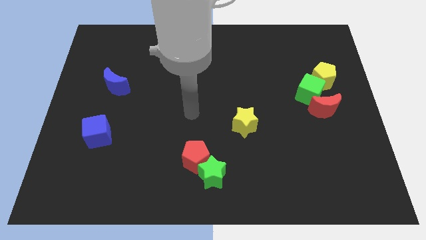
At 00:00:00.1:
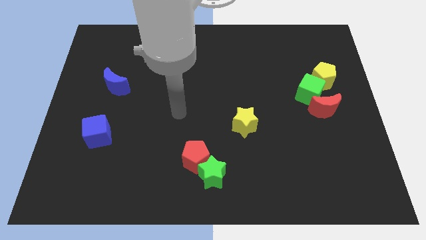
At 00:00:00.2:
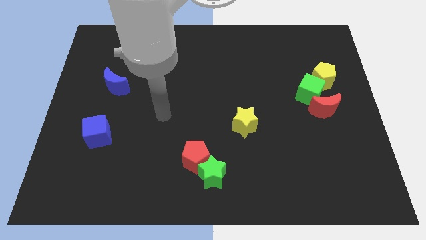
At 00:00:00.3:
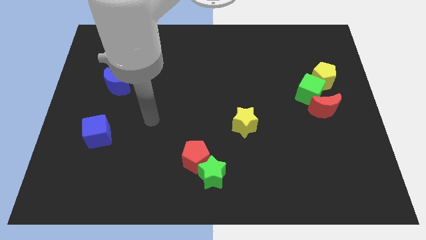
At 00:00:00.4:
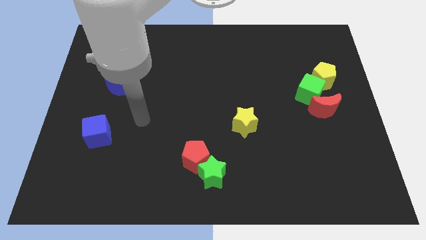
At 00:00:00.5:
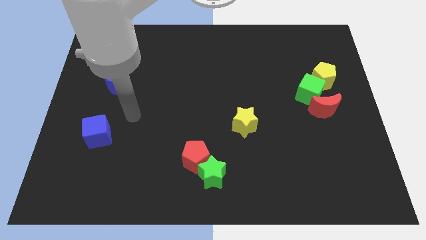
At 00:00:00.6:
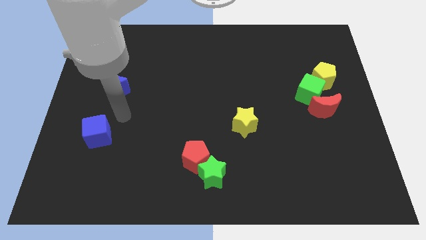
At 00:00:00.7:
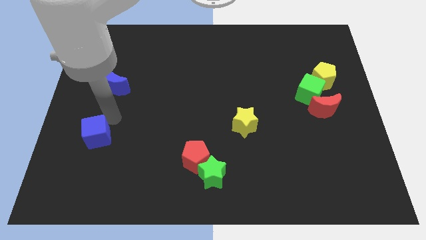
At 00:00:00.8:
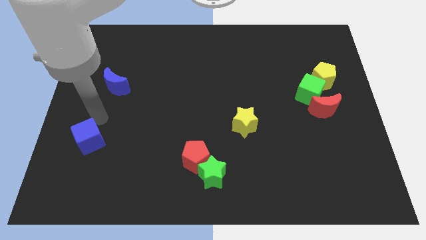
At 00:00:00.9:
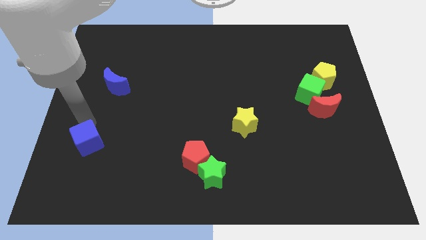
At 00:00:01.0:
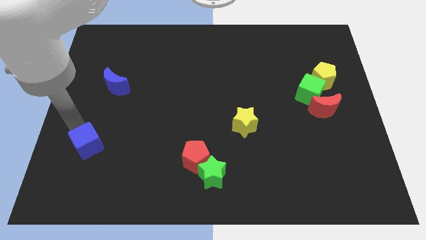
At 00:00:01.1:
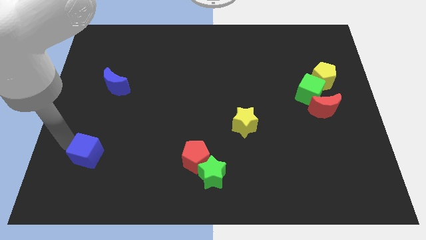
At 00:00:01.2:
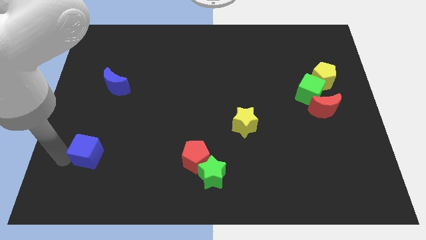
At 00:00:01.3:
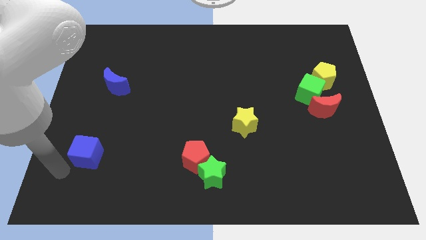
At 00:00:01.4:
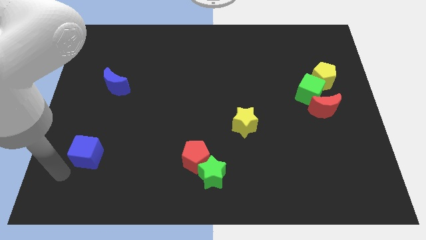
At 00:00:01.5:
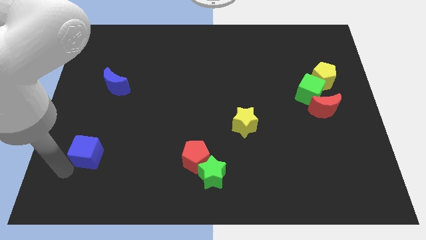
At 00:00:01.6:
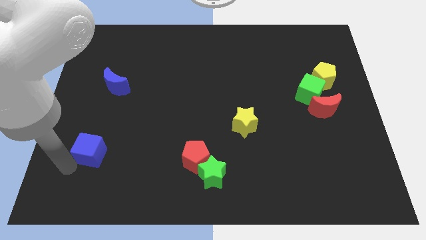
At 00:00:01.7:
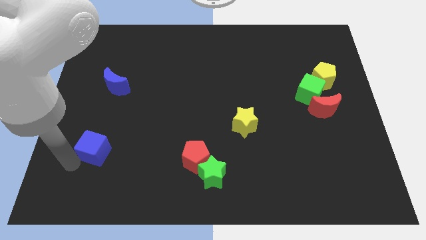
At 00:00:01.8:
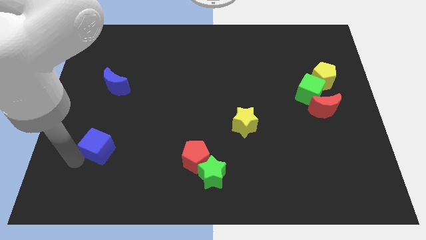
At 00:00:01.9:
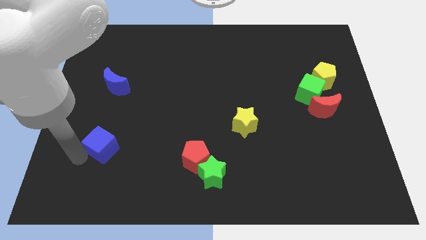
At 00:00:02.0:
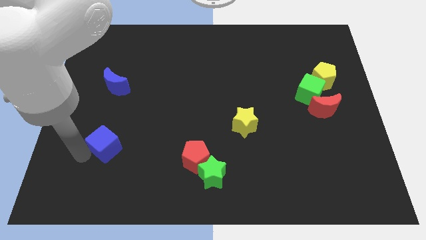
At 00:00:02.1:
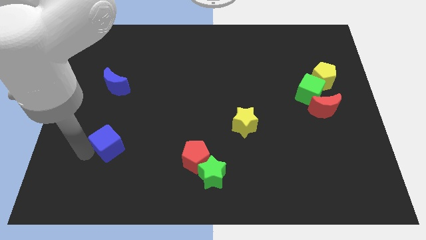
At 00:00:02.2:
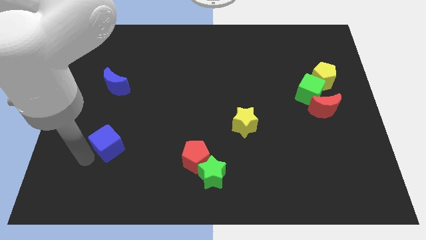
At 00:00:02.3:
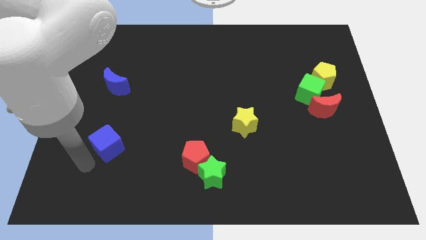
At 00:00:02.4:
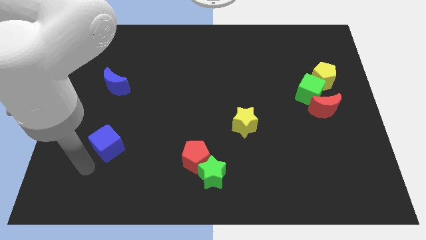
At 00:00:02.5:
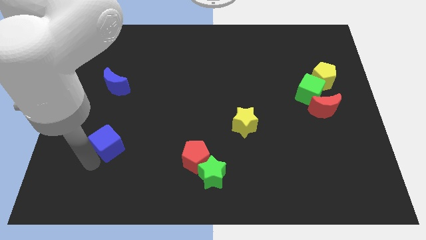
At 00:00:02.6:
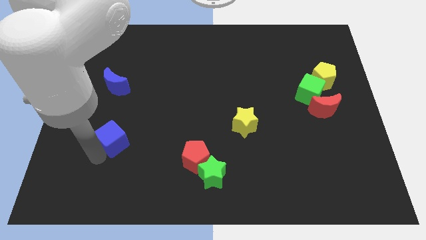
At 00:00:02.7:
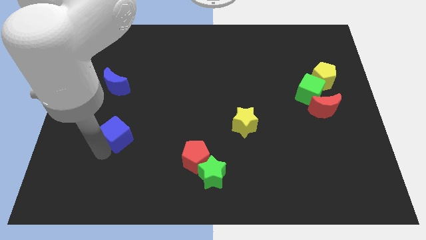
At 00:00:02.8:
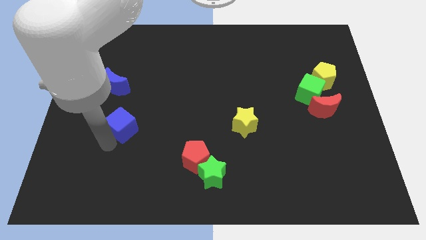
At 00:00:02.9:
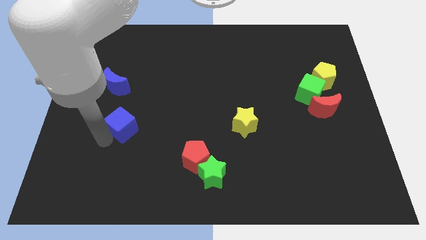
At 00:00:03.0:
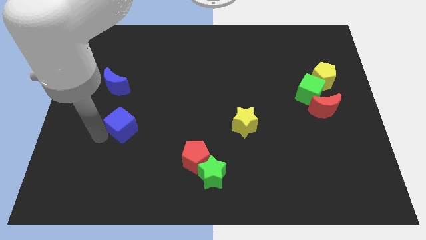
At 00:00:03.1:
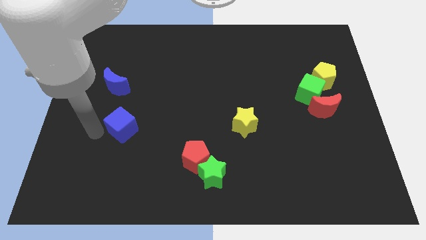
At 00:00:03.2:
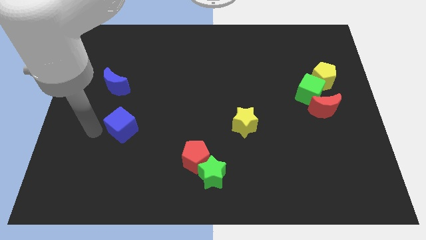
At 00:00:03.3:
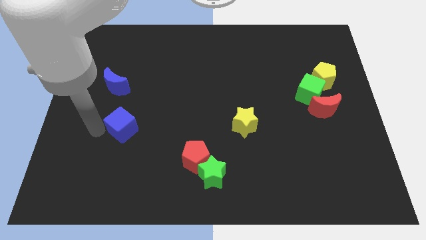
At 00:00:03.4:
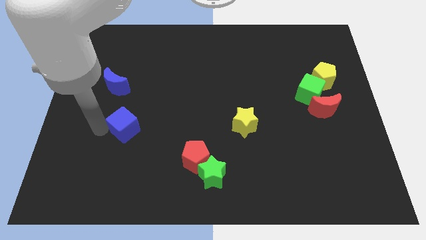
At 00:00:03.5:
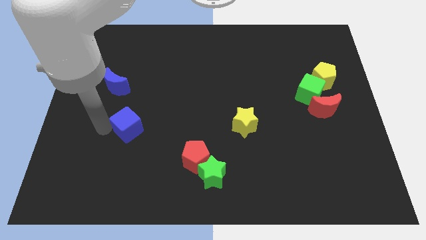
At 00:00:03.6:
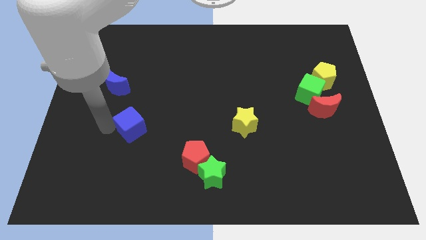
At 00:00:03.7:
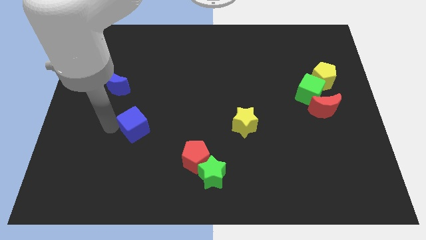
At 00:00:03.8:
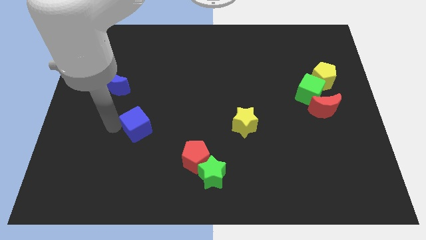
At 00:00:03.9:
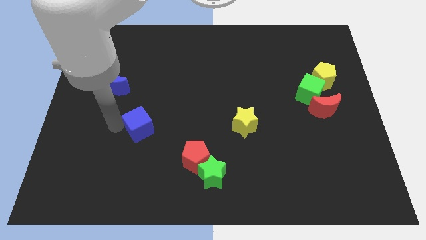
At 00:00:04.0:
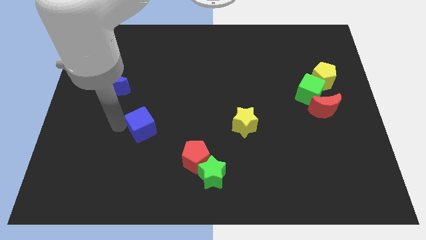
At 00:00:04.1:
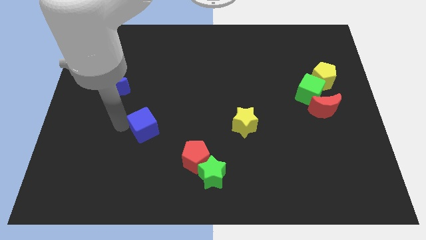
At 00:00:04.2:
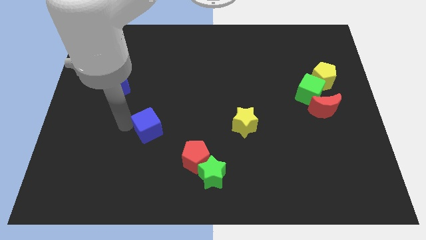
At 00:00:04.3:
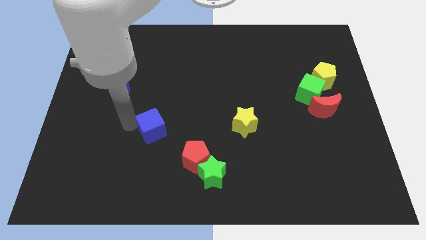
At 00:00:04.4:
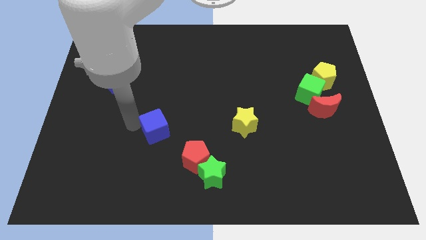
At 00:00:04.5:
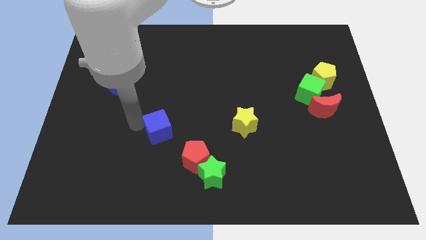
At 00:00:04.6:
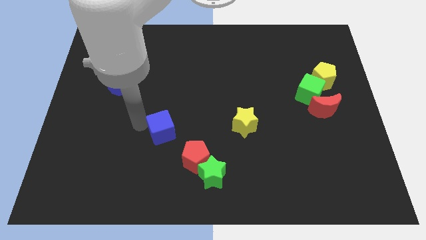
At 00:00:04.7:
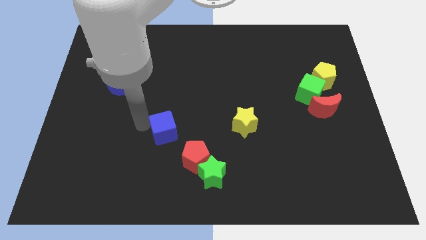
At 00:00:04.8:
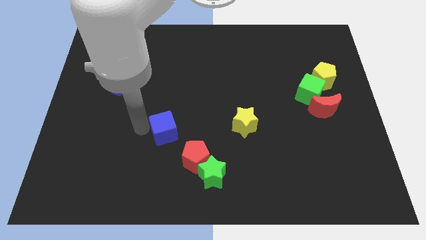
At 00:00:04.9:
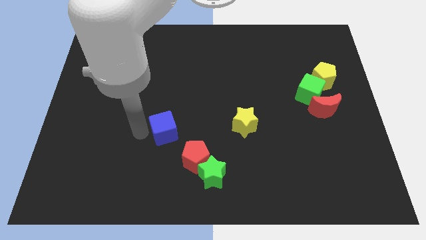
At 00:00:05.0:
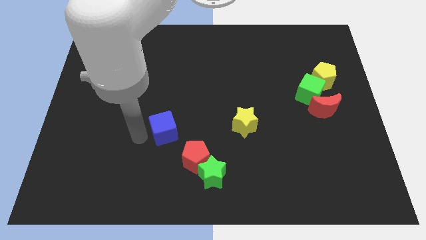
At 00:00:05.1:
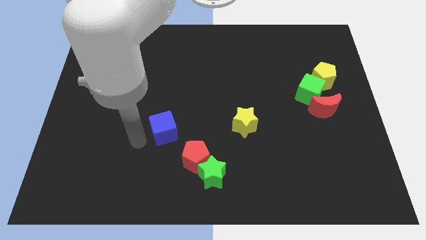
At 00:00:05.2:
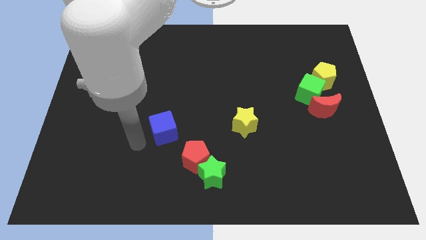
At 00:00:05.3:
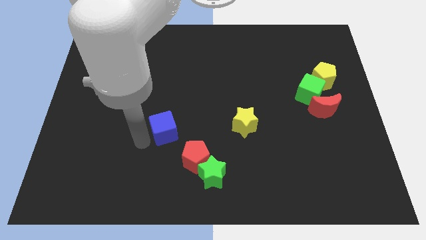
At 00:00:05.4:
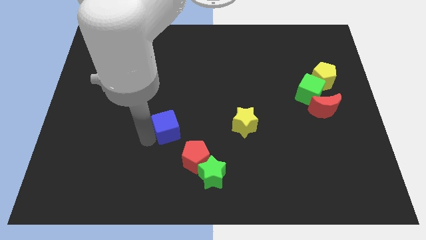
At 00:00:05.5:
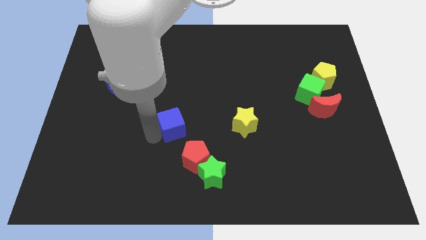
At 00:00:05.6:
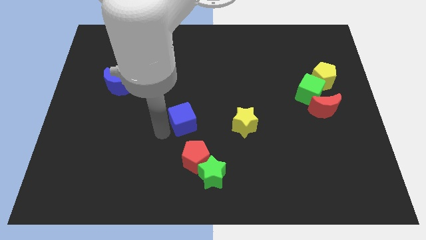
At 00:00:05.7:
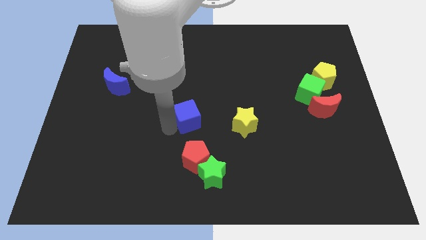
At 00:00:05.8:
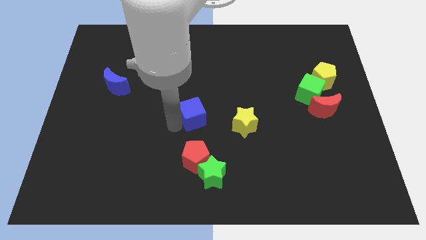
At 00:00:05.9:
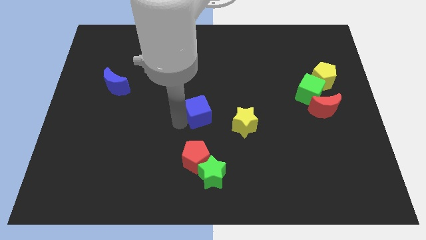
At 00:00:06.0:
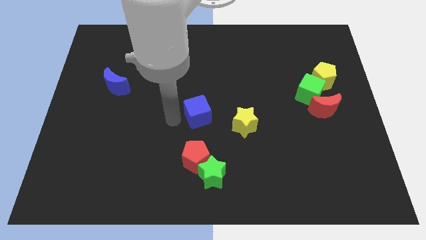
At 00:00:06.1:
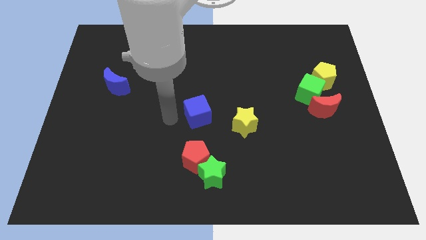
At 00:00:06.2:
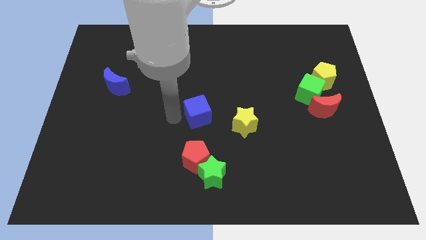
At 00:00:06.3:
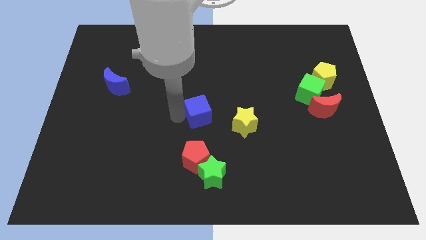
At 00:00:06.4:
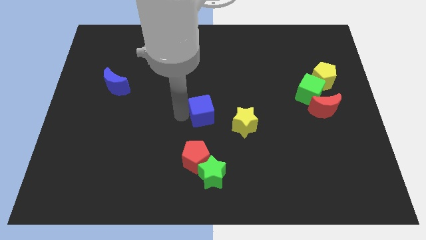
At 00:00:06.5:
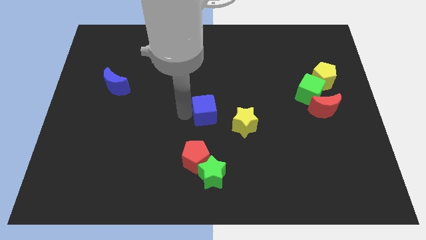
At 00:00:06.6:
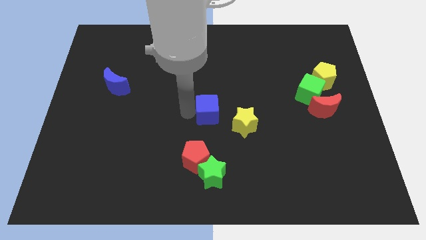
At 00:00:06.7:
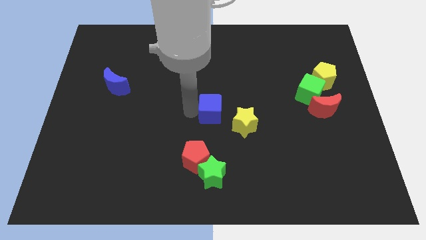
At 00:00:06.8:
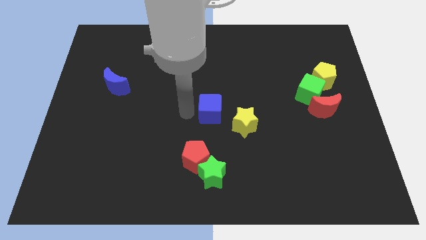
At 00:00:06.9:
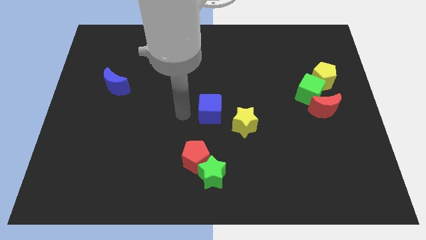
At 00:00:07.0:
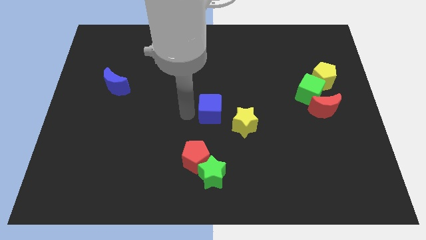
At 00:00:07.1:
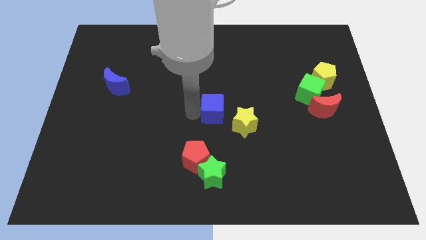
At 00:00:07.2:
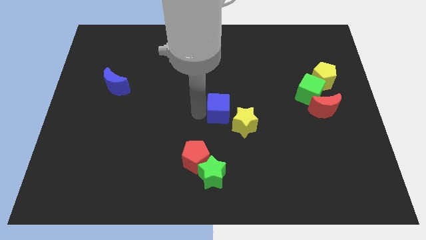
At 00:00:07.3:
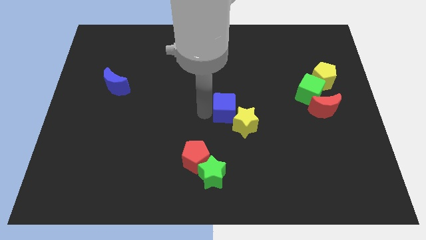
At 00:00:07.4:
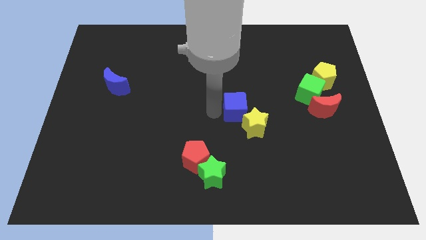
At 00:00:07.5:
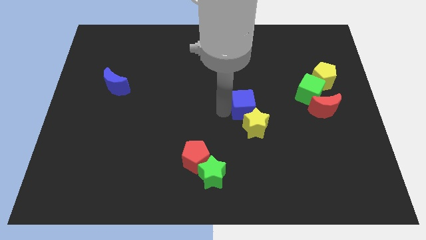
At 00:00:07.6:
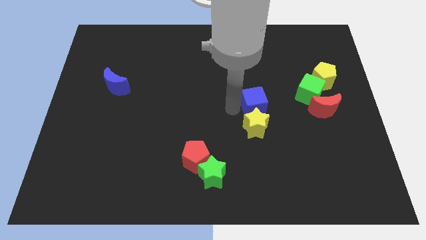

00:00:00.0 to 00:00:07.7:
push the blue cube to the top right side of the yellow star
